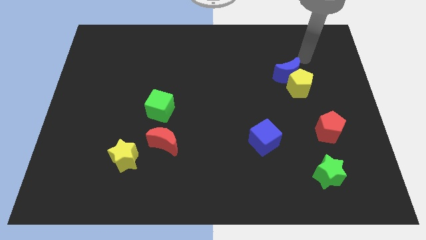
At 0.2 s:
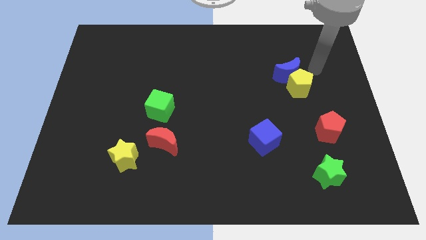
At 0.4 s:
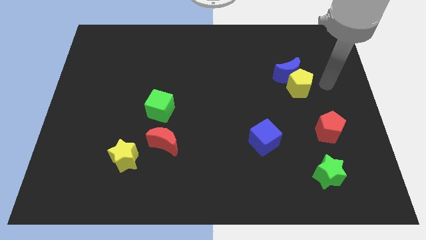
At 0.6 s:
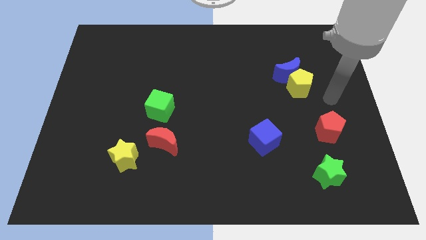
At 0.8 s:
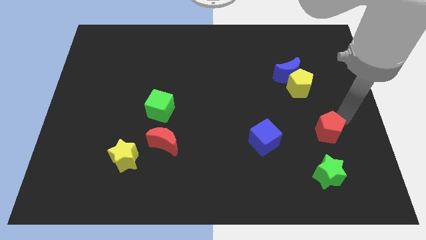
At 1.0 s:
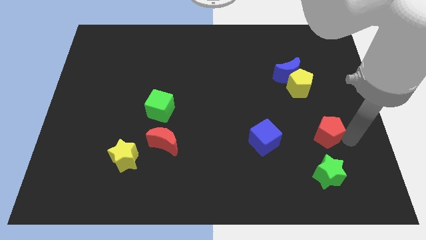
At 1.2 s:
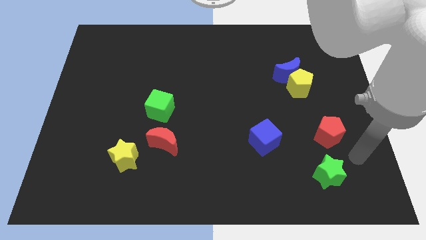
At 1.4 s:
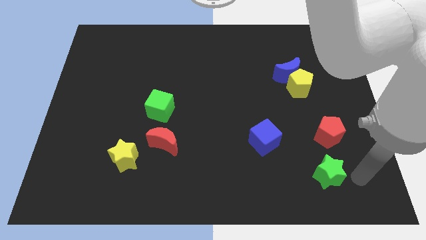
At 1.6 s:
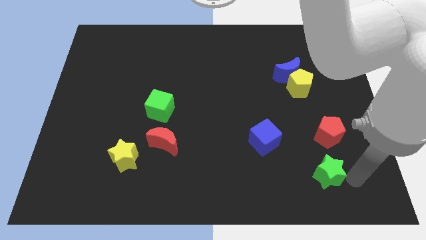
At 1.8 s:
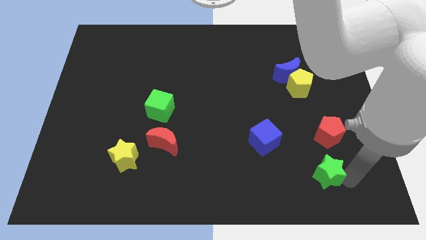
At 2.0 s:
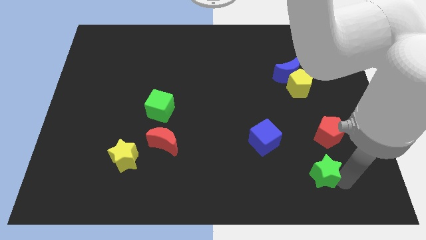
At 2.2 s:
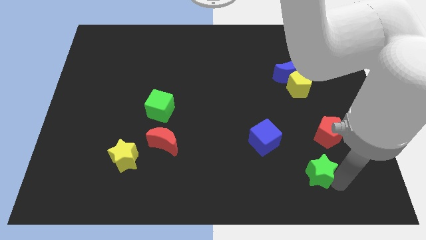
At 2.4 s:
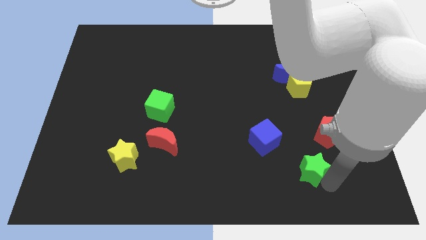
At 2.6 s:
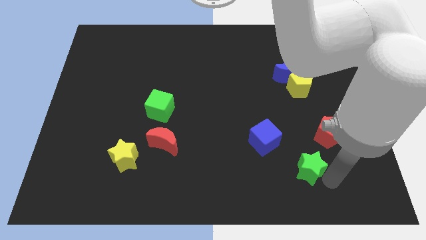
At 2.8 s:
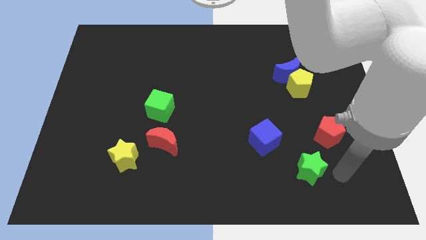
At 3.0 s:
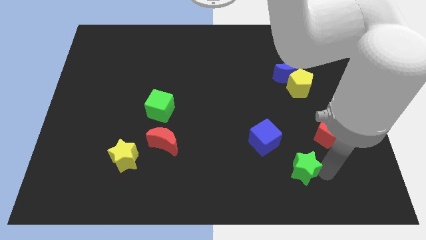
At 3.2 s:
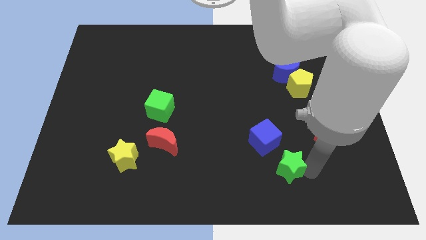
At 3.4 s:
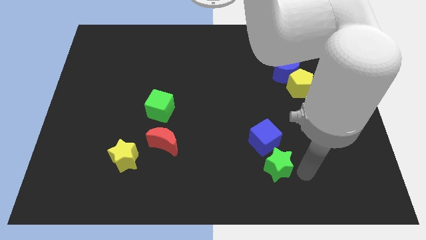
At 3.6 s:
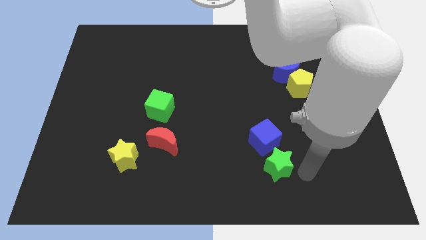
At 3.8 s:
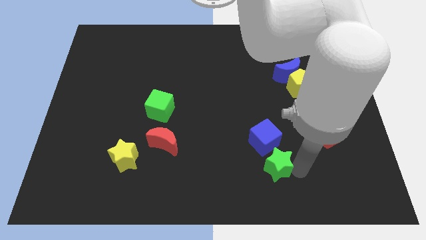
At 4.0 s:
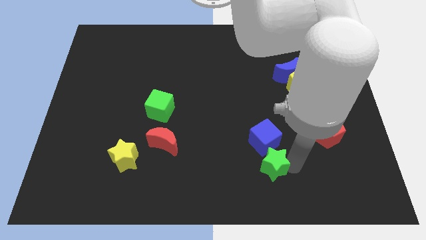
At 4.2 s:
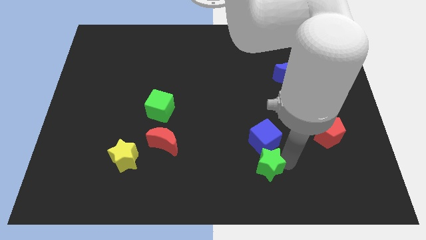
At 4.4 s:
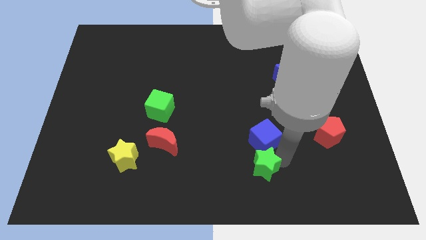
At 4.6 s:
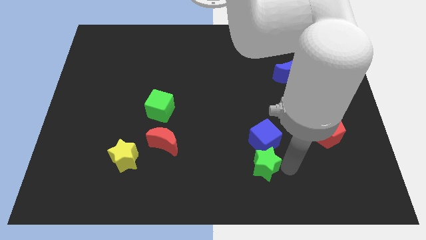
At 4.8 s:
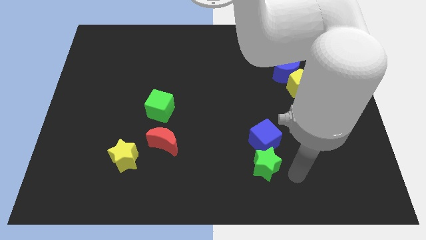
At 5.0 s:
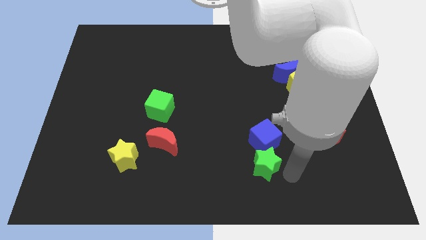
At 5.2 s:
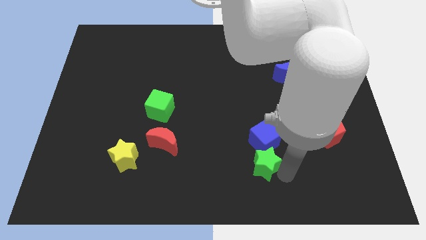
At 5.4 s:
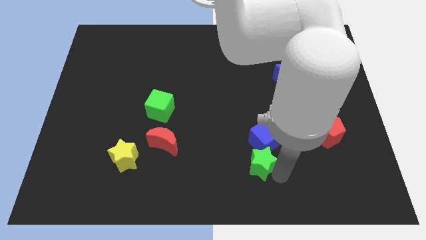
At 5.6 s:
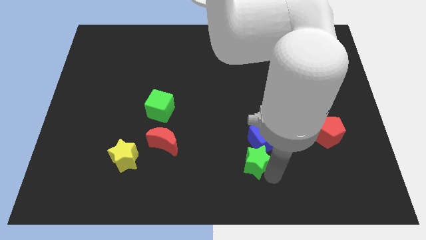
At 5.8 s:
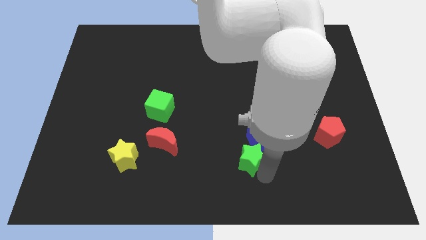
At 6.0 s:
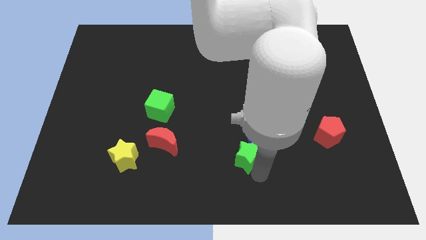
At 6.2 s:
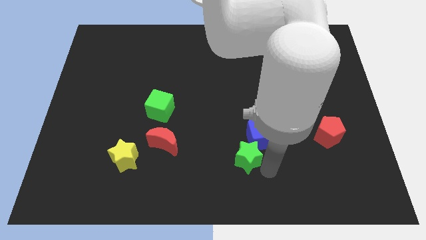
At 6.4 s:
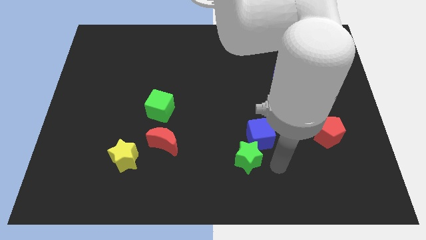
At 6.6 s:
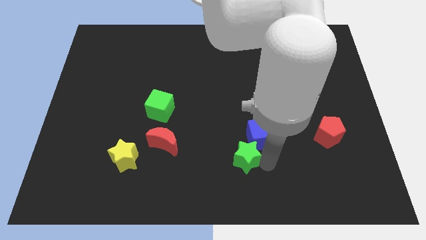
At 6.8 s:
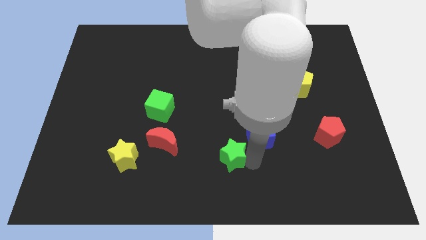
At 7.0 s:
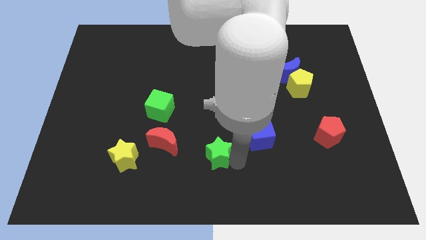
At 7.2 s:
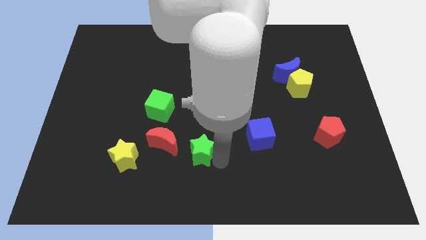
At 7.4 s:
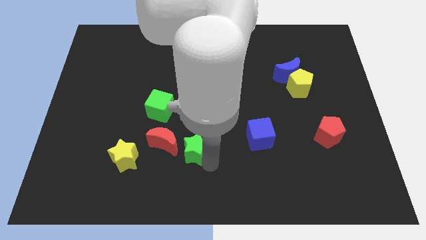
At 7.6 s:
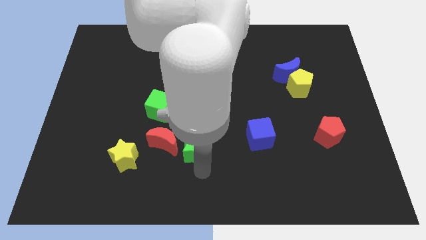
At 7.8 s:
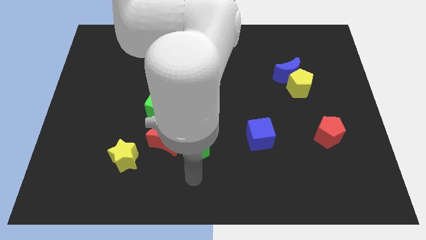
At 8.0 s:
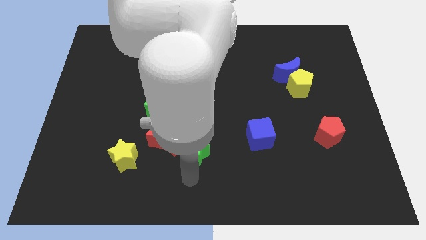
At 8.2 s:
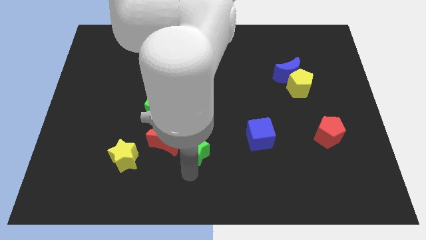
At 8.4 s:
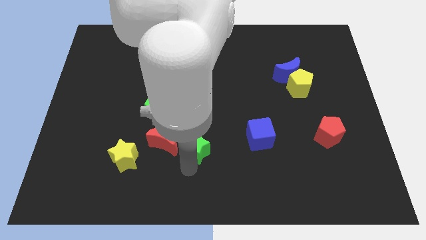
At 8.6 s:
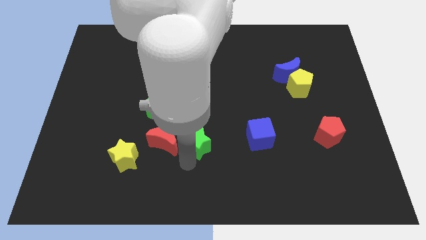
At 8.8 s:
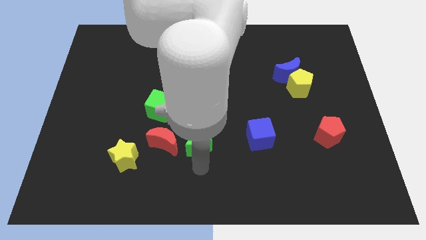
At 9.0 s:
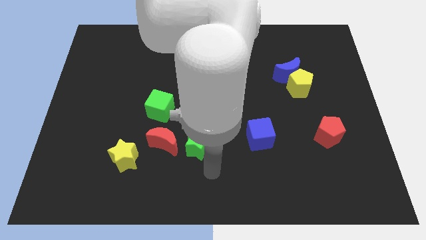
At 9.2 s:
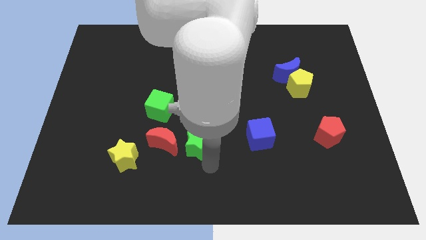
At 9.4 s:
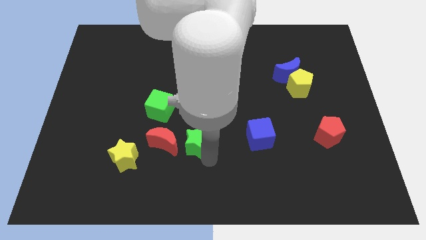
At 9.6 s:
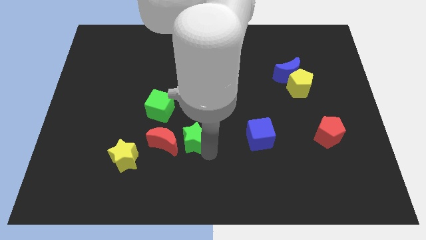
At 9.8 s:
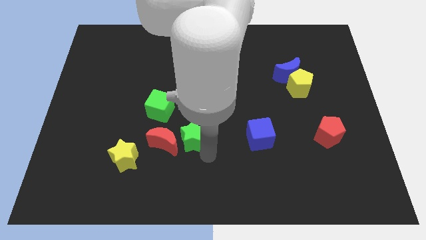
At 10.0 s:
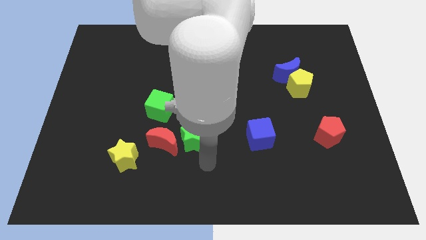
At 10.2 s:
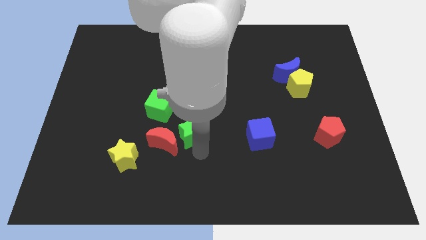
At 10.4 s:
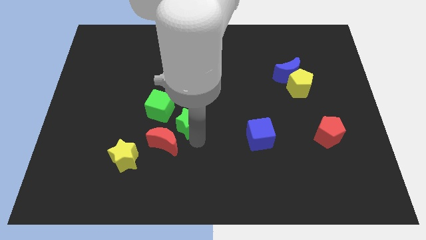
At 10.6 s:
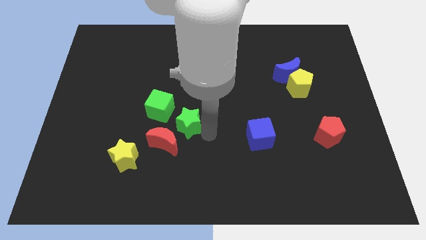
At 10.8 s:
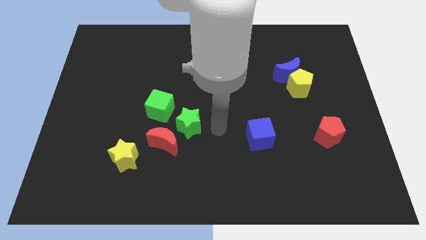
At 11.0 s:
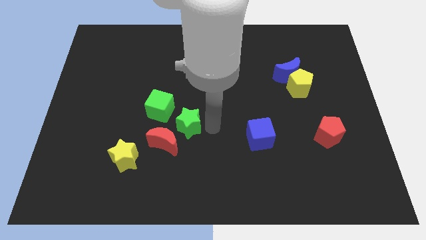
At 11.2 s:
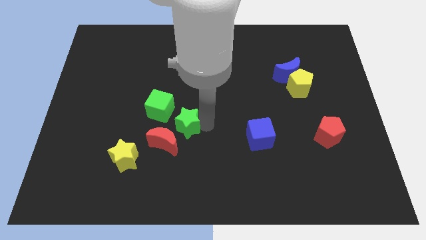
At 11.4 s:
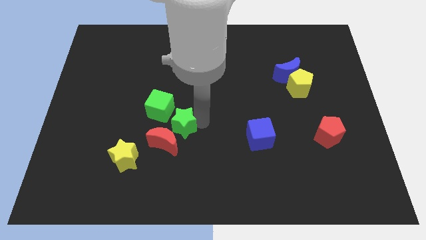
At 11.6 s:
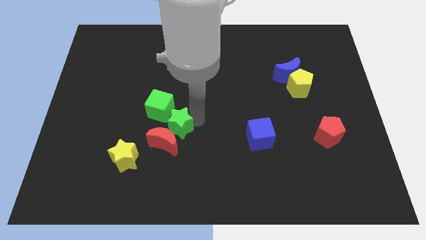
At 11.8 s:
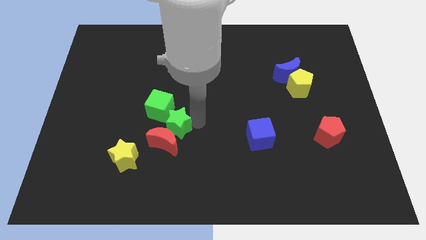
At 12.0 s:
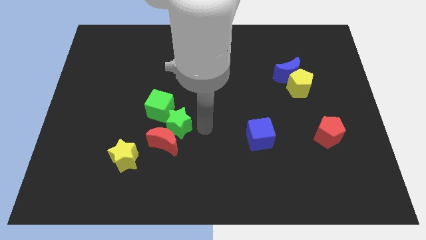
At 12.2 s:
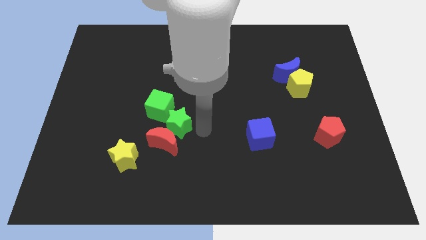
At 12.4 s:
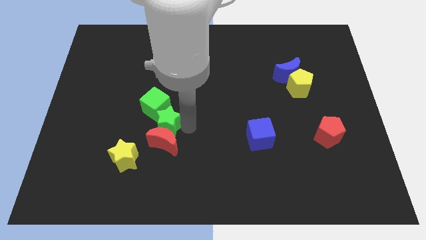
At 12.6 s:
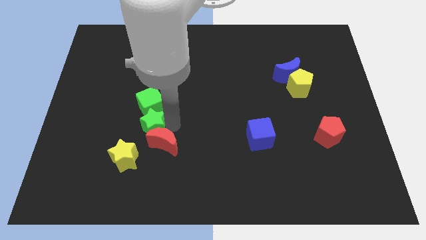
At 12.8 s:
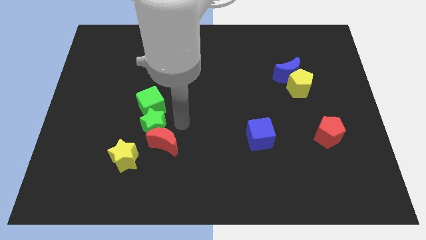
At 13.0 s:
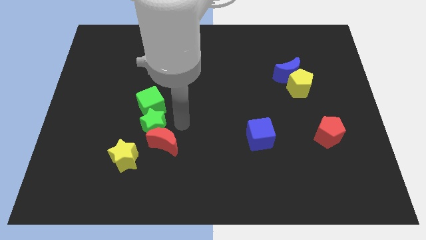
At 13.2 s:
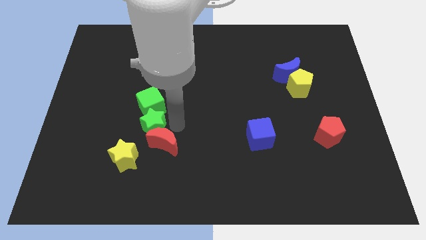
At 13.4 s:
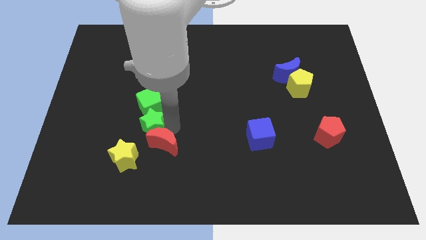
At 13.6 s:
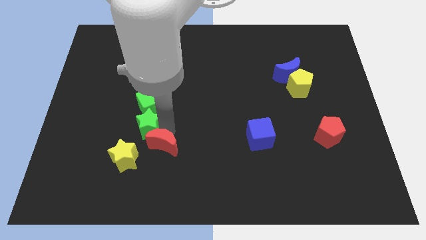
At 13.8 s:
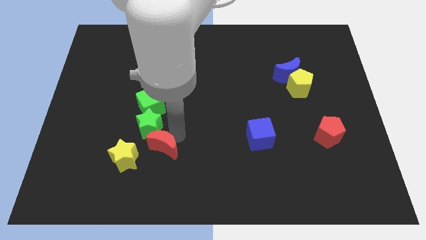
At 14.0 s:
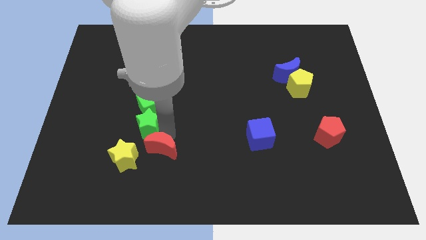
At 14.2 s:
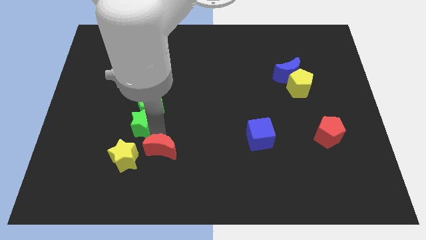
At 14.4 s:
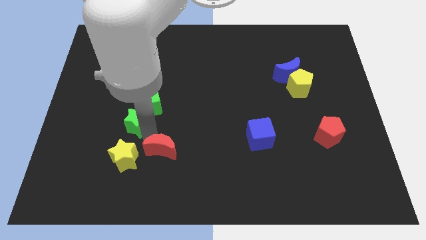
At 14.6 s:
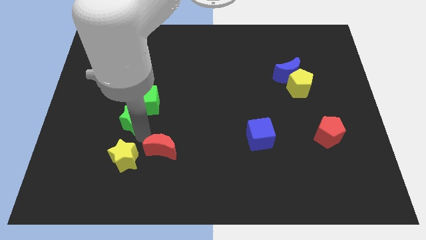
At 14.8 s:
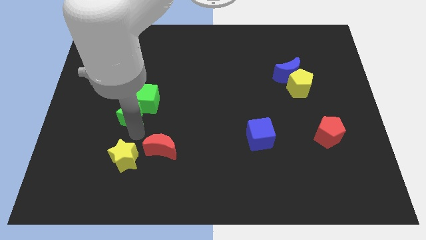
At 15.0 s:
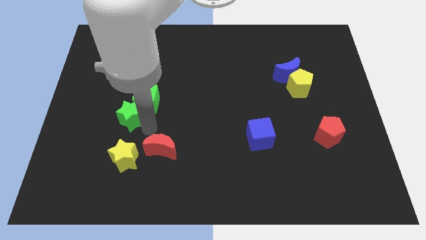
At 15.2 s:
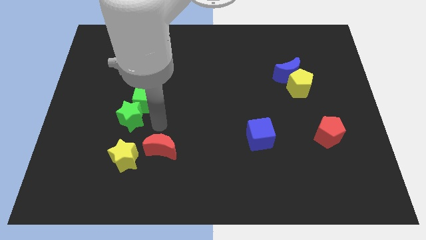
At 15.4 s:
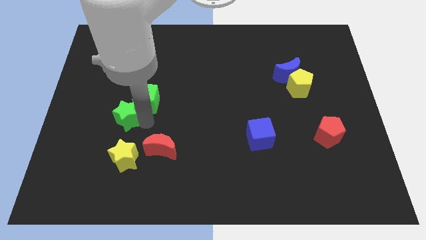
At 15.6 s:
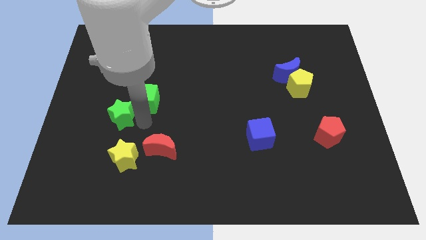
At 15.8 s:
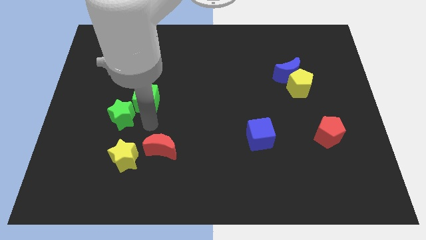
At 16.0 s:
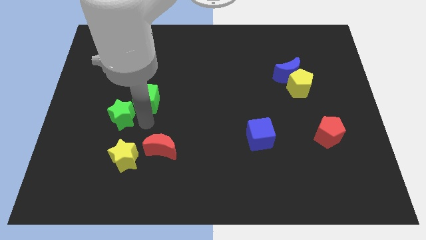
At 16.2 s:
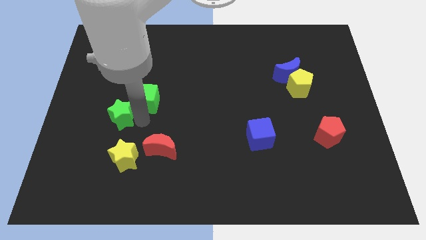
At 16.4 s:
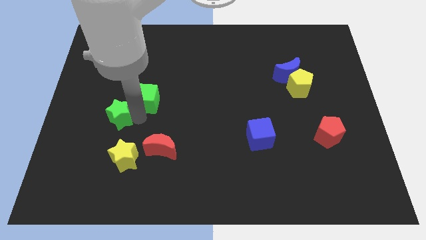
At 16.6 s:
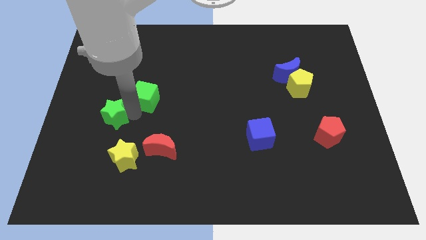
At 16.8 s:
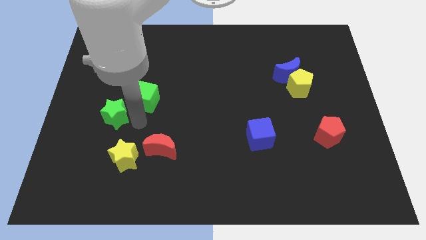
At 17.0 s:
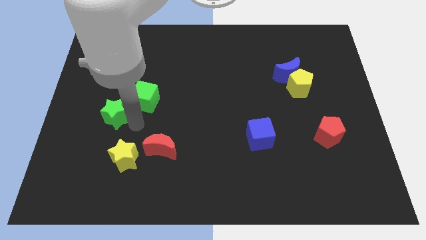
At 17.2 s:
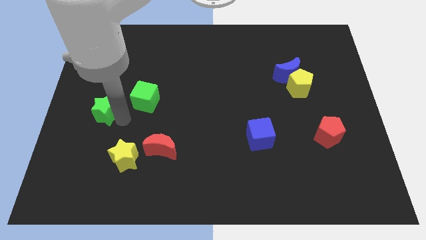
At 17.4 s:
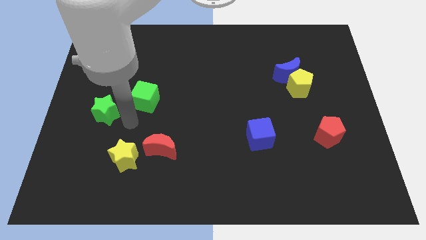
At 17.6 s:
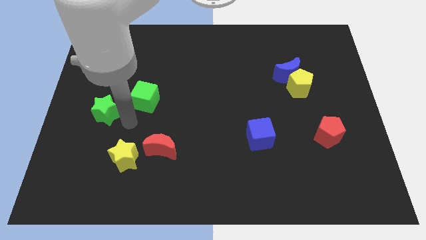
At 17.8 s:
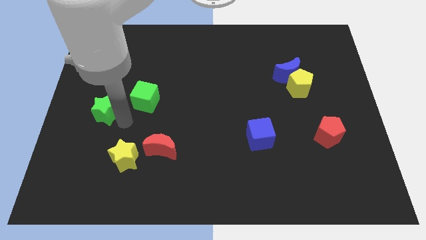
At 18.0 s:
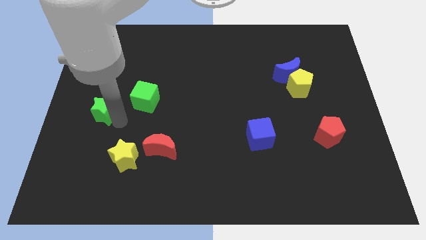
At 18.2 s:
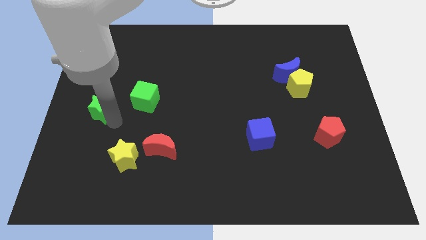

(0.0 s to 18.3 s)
put the green star to the center left
